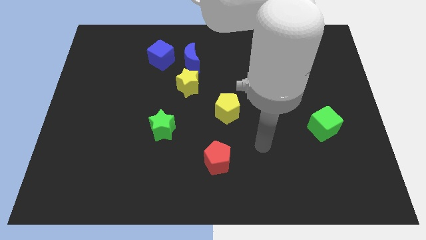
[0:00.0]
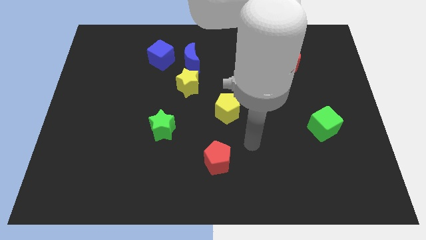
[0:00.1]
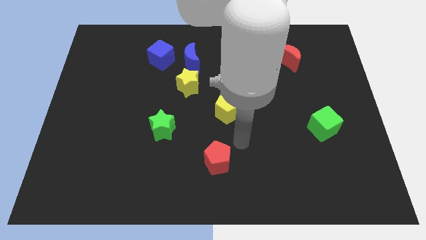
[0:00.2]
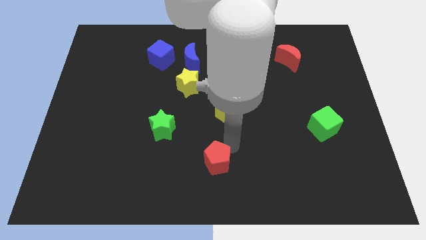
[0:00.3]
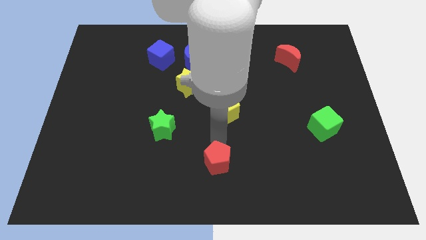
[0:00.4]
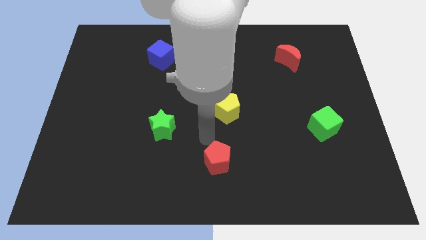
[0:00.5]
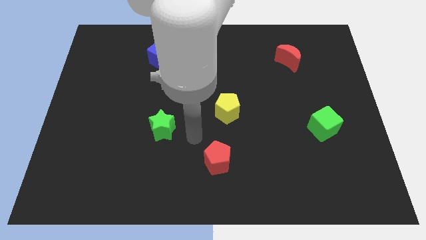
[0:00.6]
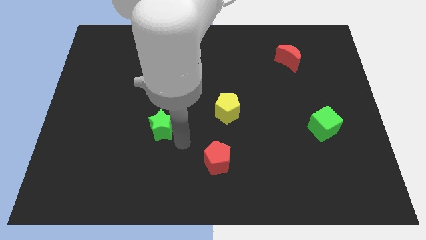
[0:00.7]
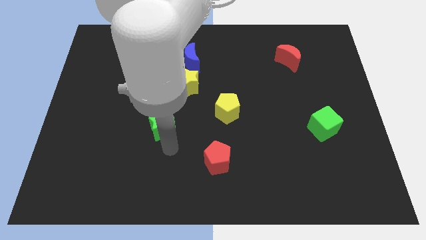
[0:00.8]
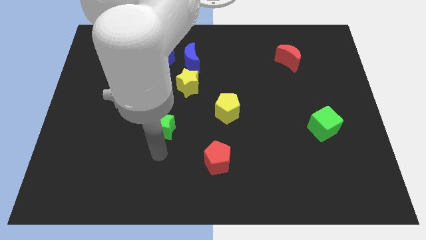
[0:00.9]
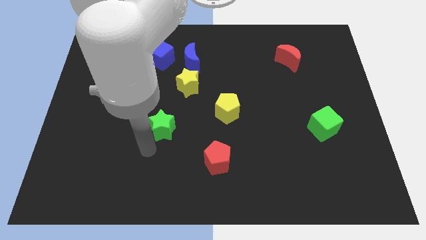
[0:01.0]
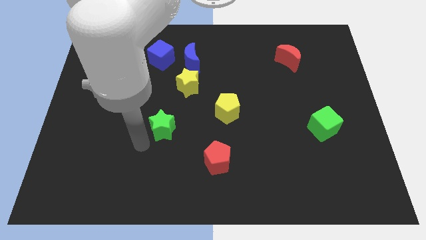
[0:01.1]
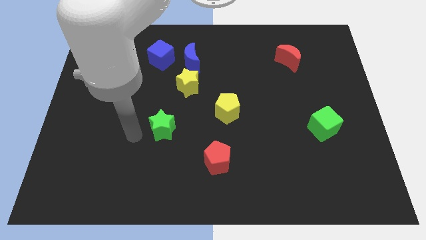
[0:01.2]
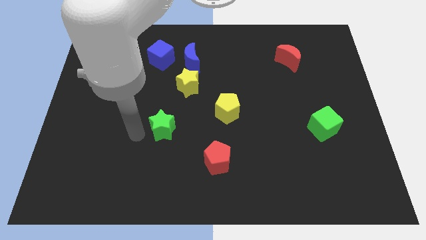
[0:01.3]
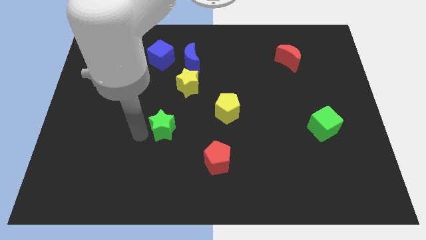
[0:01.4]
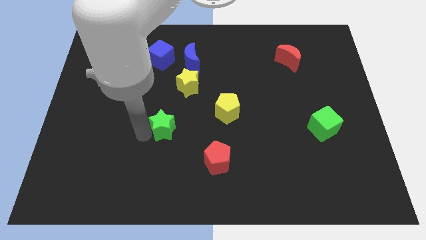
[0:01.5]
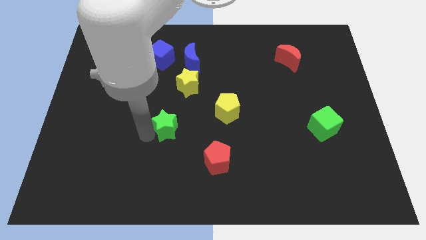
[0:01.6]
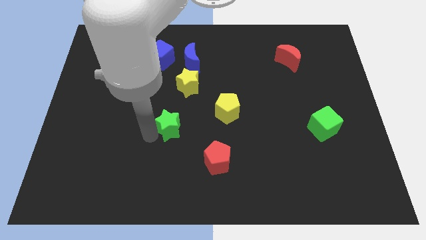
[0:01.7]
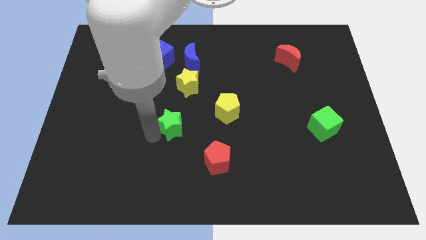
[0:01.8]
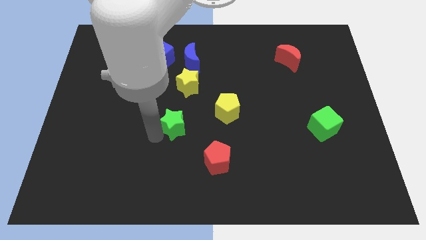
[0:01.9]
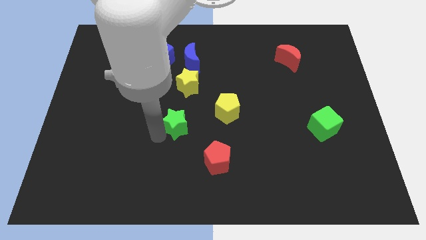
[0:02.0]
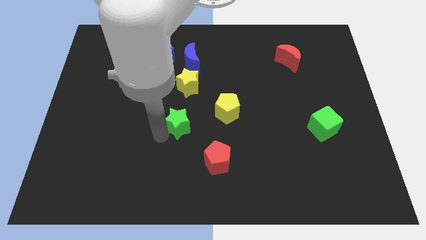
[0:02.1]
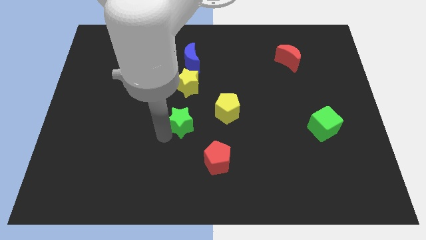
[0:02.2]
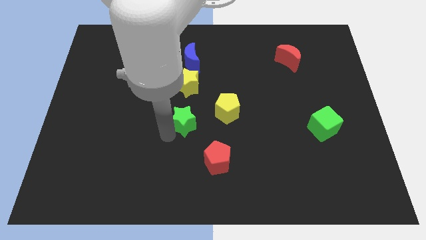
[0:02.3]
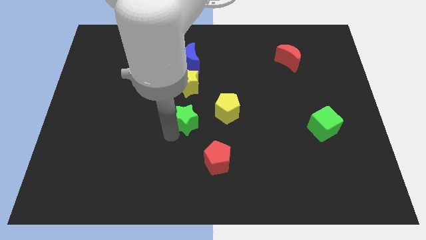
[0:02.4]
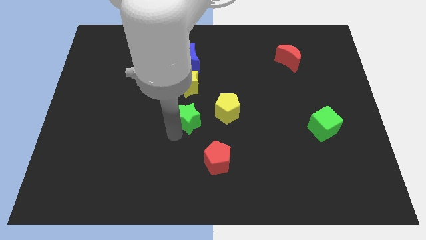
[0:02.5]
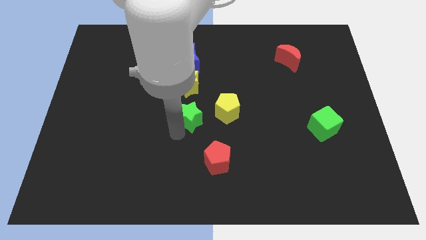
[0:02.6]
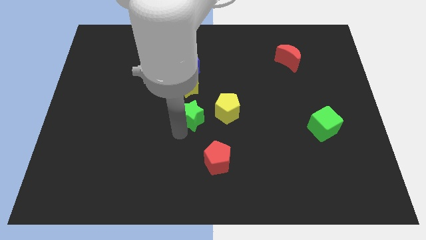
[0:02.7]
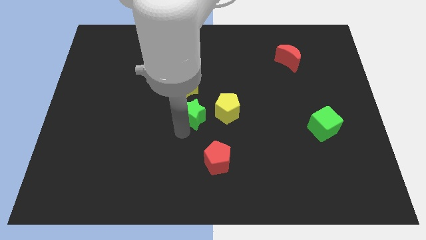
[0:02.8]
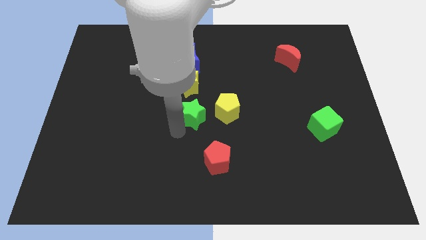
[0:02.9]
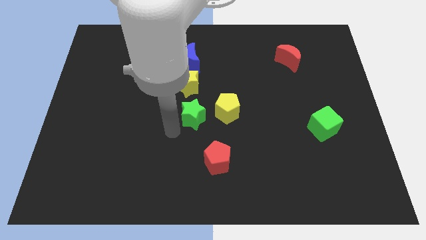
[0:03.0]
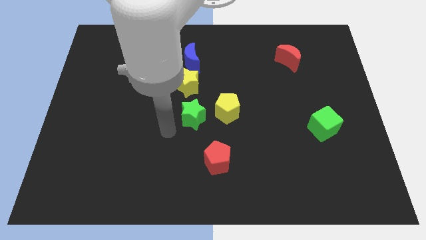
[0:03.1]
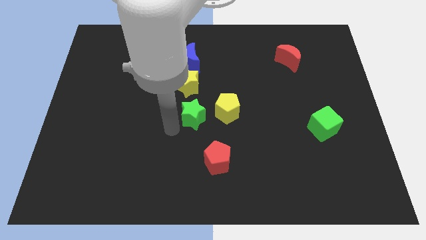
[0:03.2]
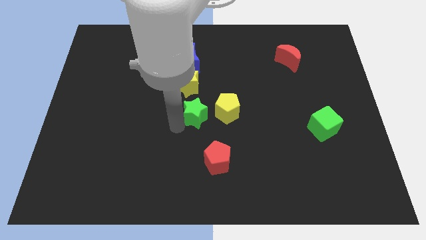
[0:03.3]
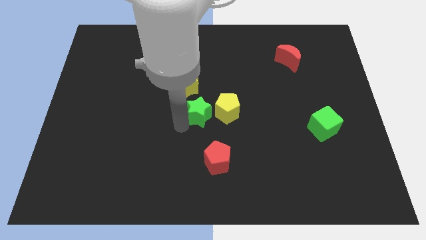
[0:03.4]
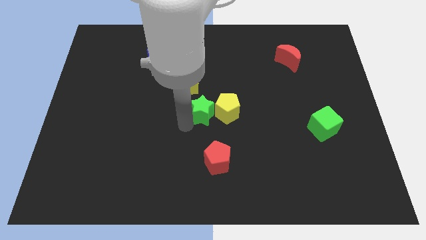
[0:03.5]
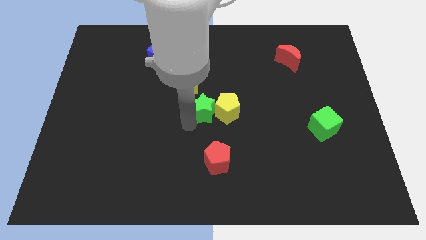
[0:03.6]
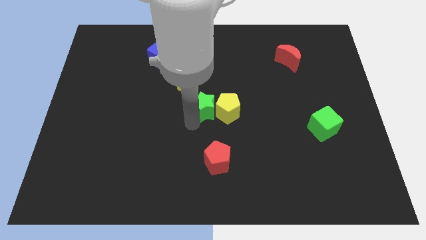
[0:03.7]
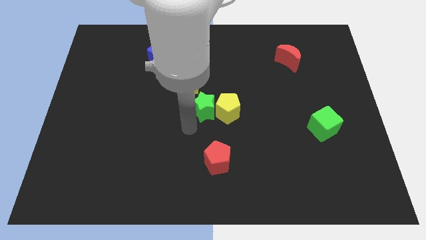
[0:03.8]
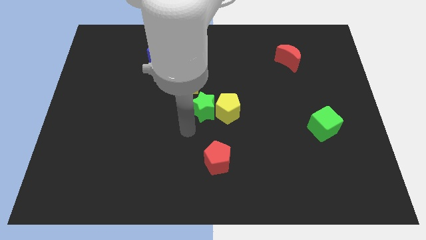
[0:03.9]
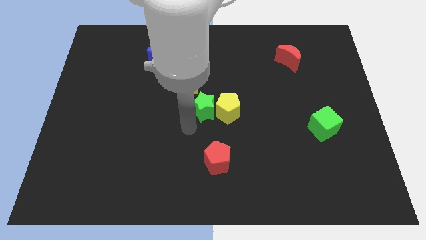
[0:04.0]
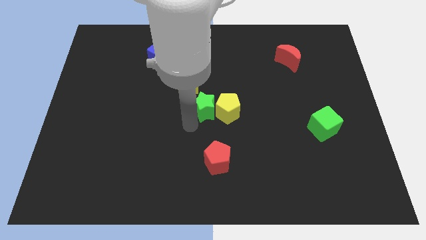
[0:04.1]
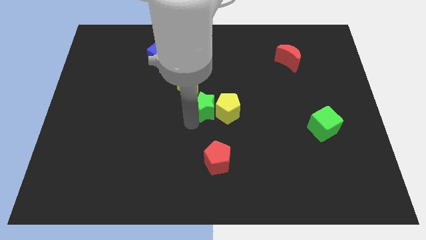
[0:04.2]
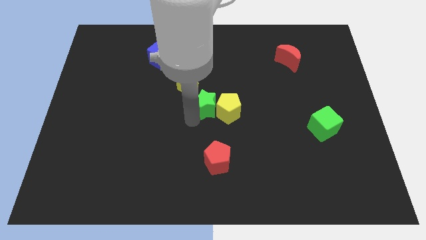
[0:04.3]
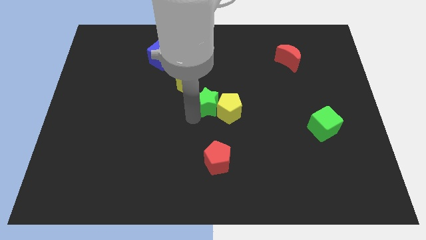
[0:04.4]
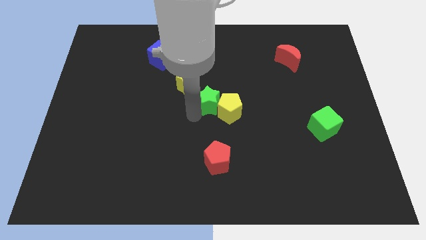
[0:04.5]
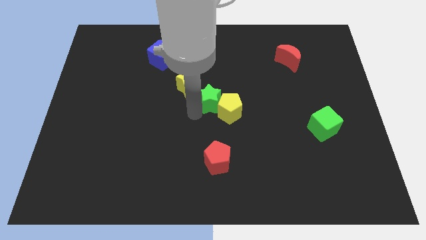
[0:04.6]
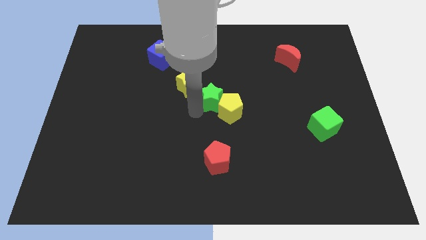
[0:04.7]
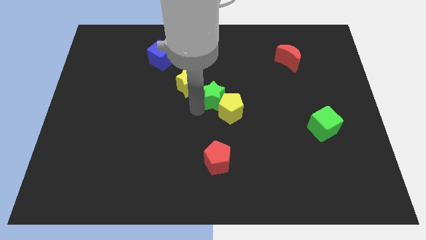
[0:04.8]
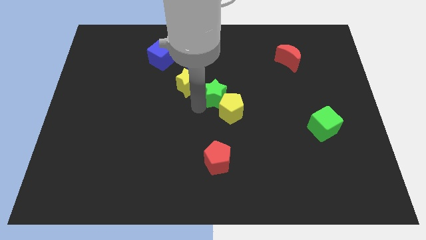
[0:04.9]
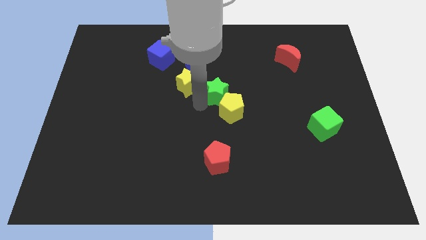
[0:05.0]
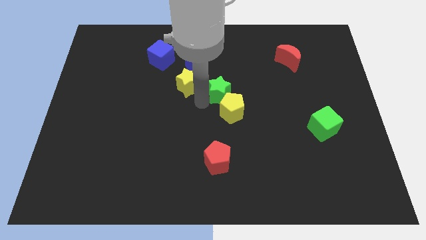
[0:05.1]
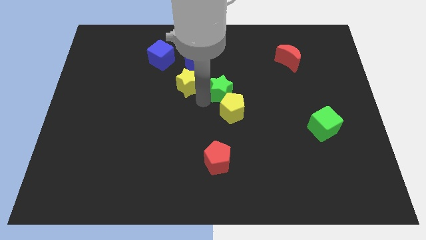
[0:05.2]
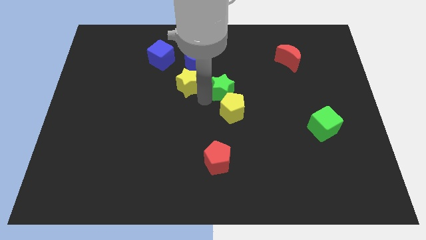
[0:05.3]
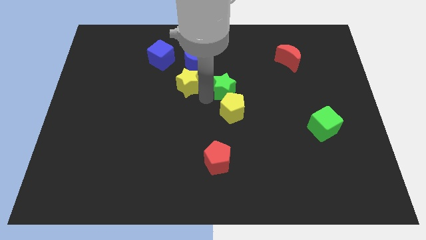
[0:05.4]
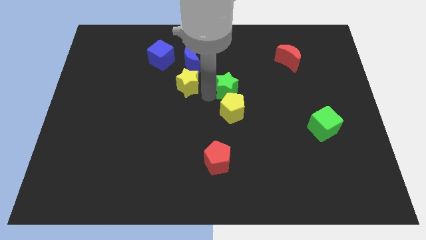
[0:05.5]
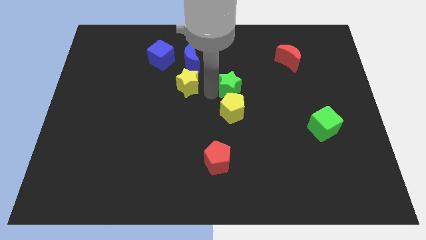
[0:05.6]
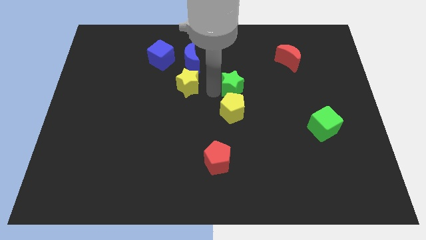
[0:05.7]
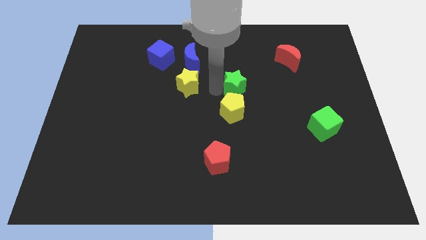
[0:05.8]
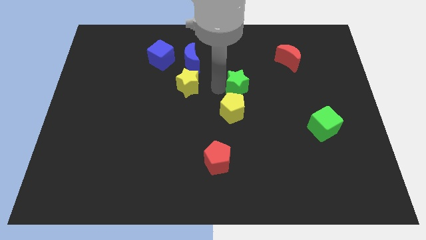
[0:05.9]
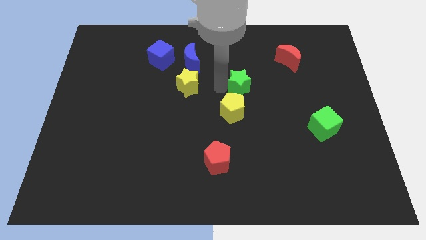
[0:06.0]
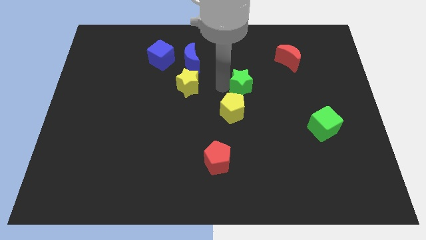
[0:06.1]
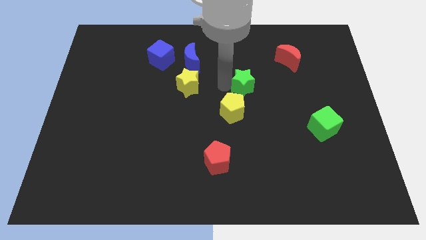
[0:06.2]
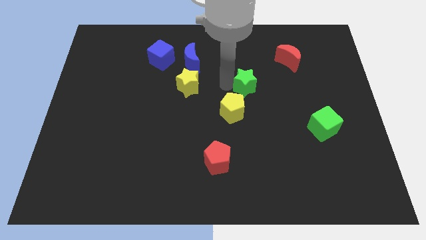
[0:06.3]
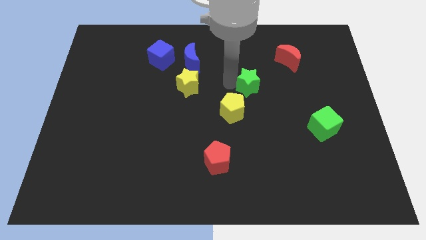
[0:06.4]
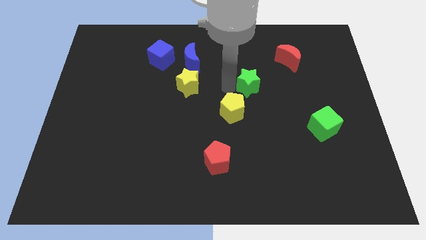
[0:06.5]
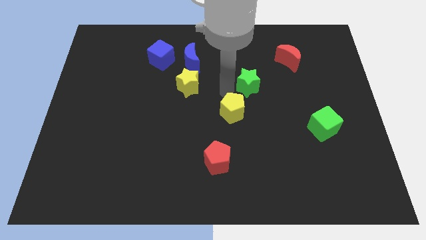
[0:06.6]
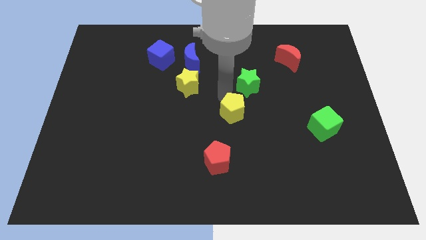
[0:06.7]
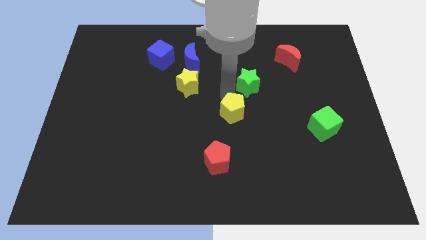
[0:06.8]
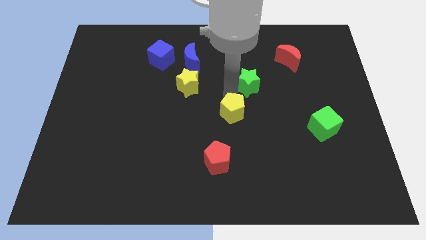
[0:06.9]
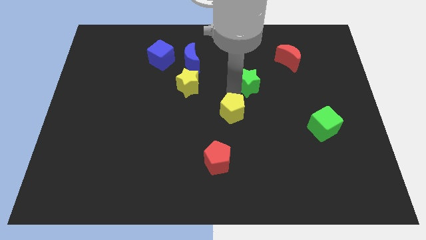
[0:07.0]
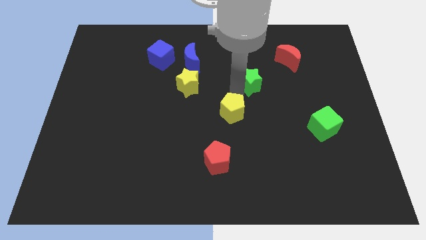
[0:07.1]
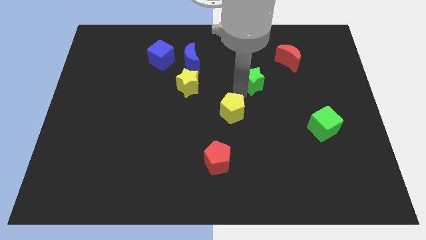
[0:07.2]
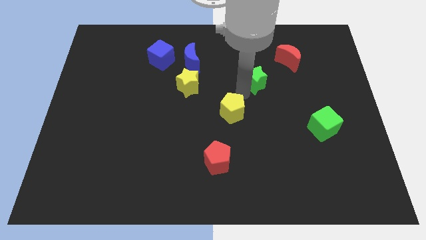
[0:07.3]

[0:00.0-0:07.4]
push the green star diagonally down and to the left of the red moon
